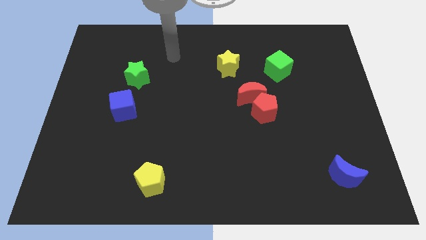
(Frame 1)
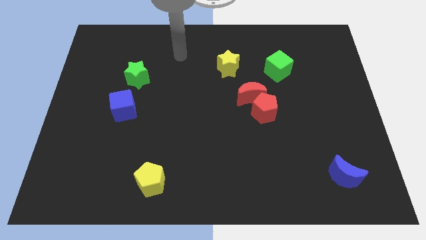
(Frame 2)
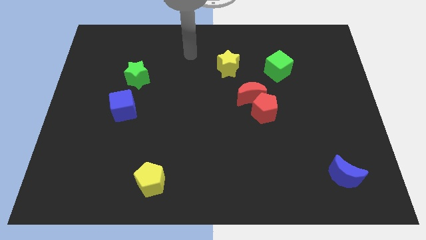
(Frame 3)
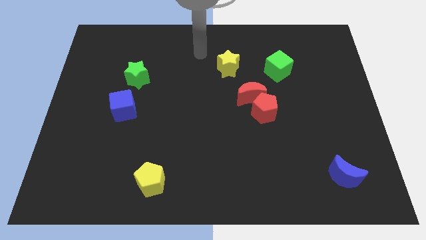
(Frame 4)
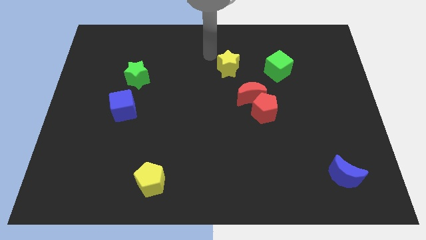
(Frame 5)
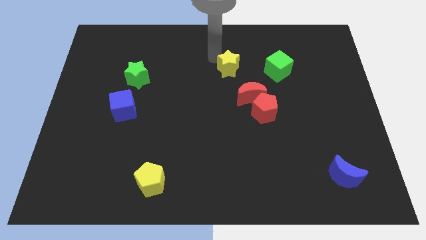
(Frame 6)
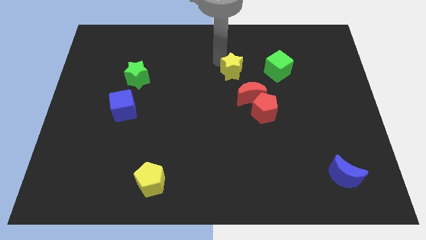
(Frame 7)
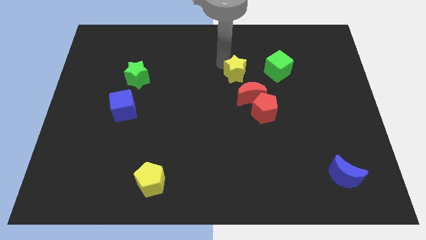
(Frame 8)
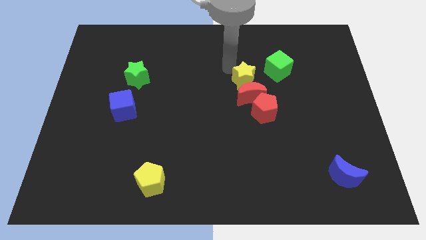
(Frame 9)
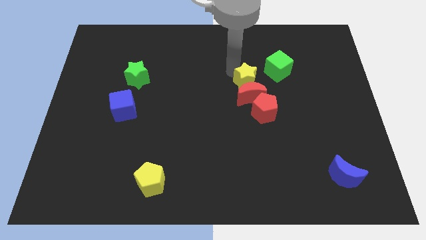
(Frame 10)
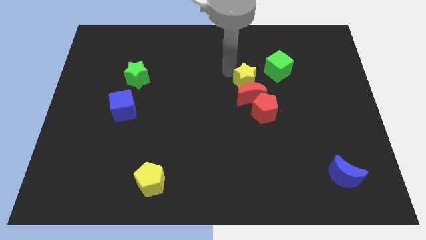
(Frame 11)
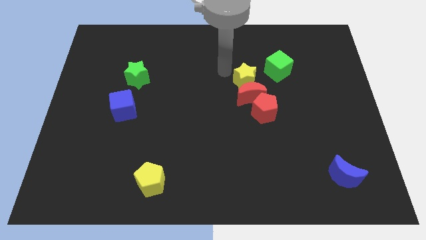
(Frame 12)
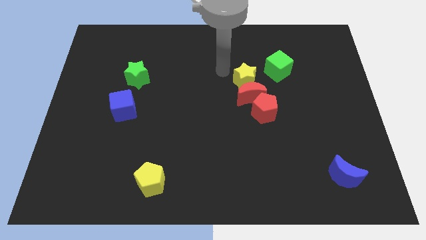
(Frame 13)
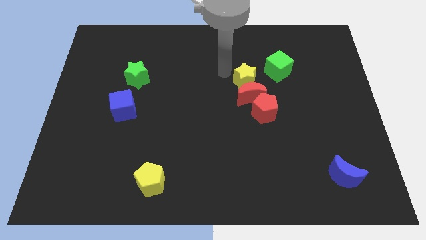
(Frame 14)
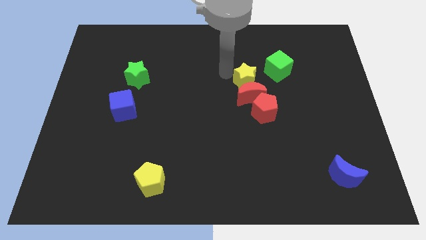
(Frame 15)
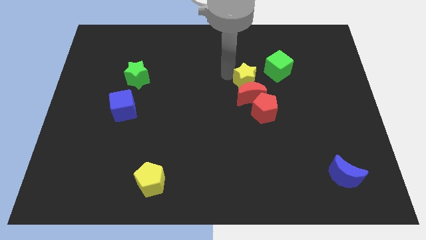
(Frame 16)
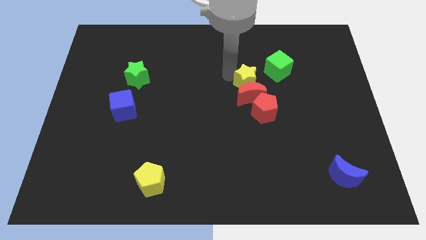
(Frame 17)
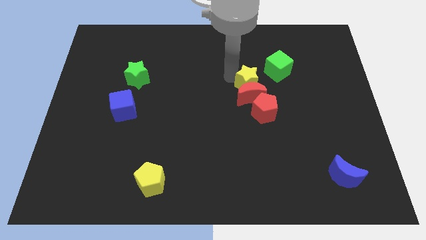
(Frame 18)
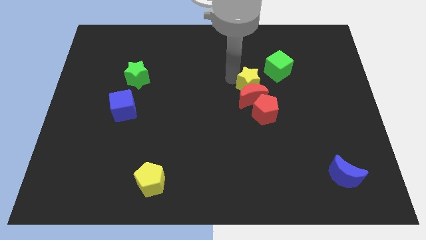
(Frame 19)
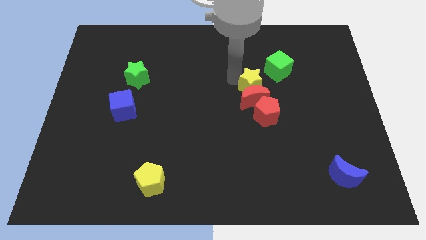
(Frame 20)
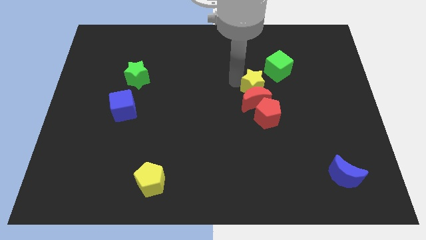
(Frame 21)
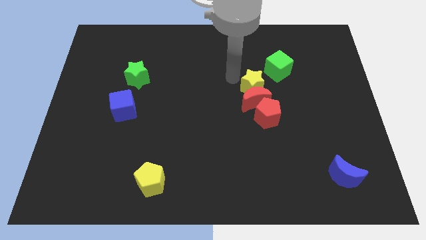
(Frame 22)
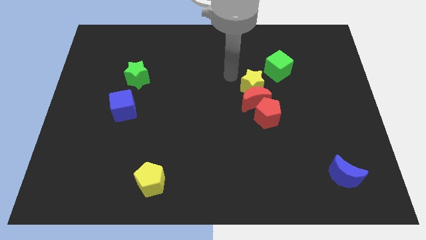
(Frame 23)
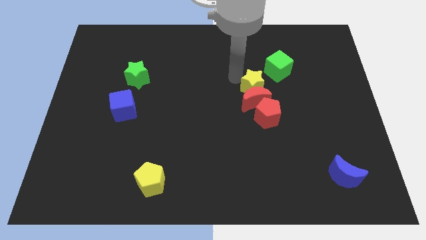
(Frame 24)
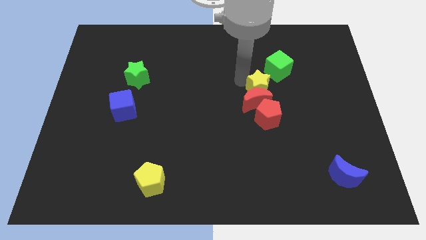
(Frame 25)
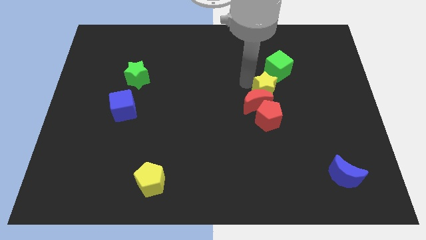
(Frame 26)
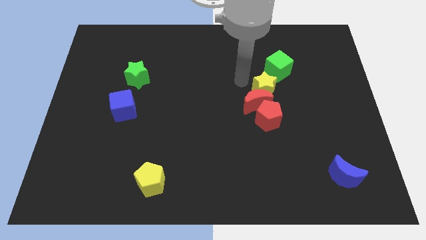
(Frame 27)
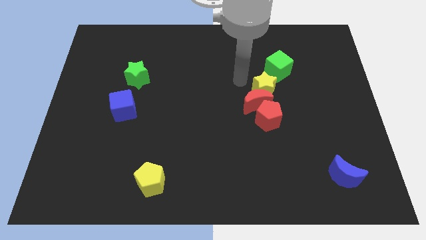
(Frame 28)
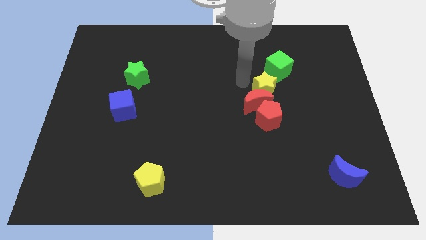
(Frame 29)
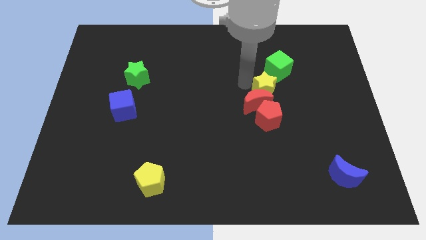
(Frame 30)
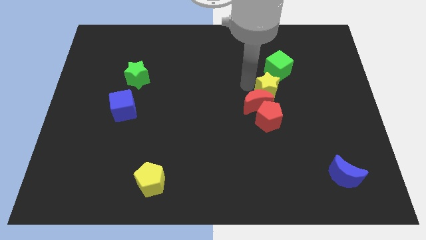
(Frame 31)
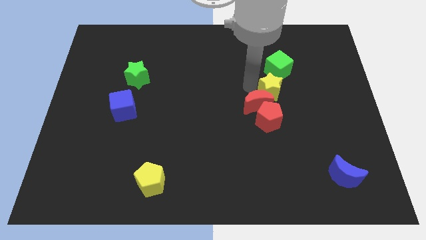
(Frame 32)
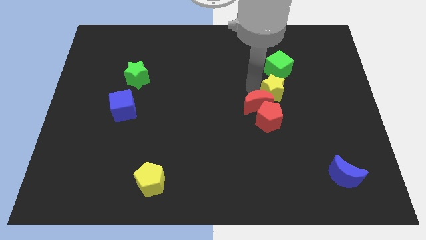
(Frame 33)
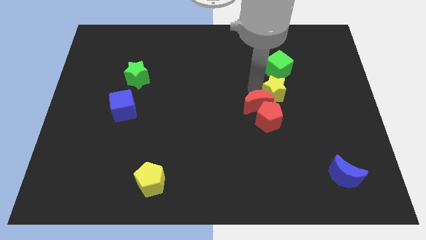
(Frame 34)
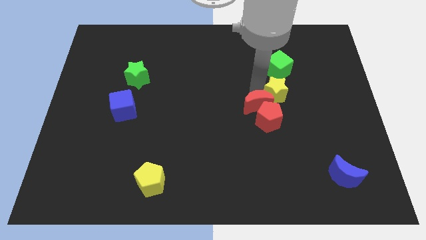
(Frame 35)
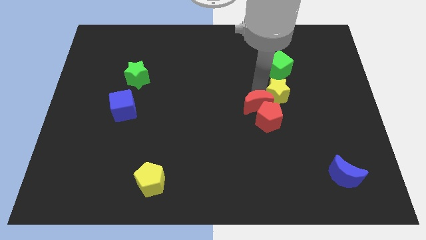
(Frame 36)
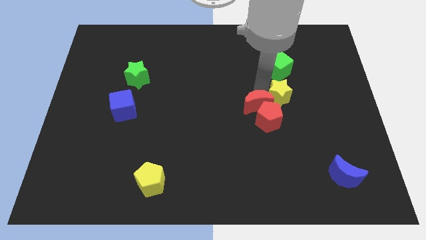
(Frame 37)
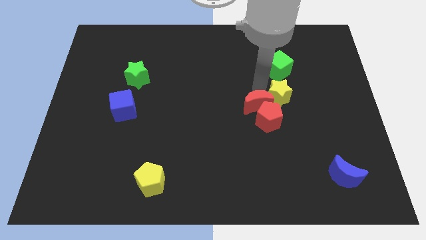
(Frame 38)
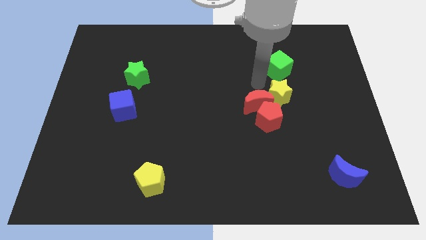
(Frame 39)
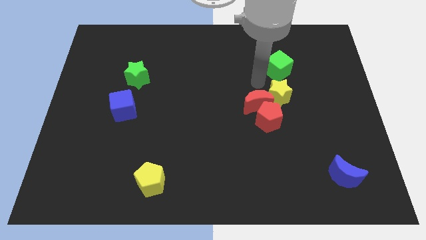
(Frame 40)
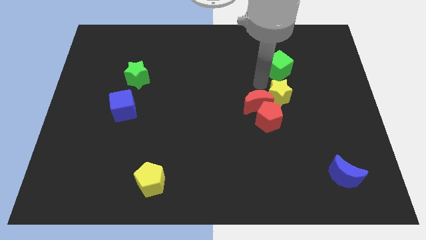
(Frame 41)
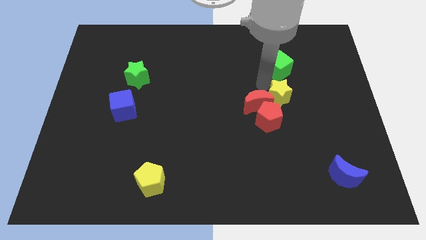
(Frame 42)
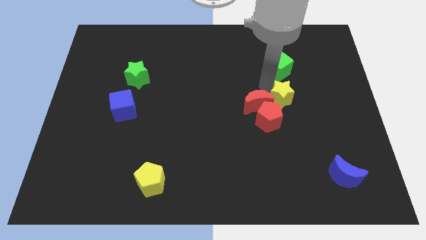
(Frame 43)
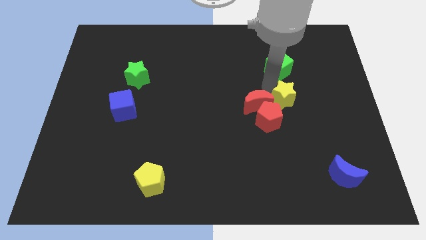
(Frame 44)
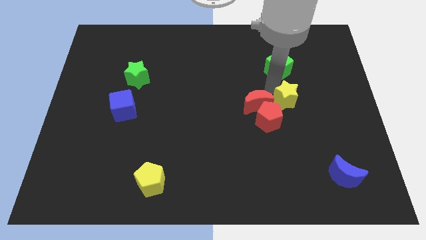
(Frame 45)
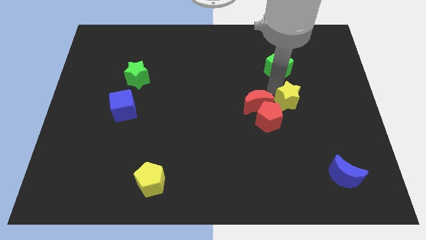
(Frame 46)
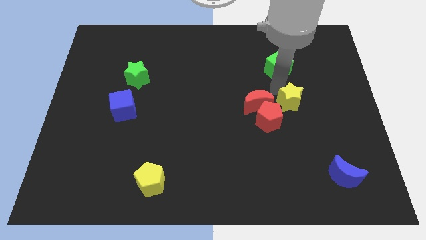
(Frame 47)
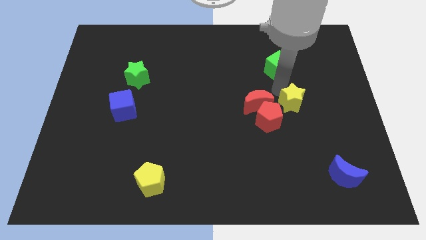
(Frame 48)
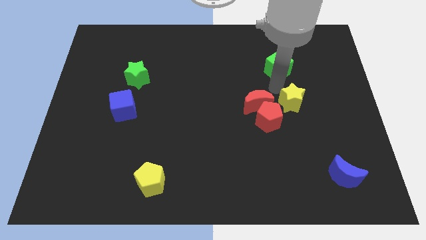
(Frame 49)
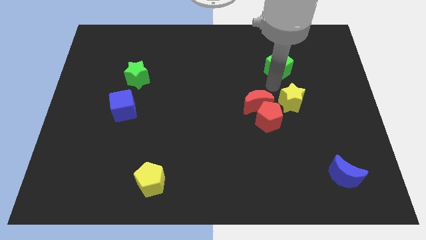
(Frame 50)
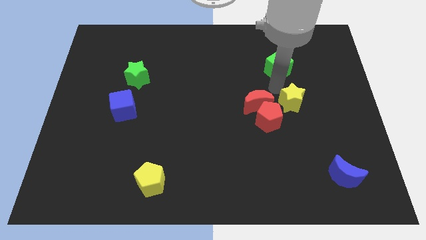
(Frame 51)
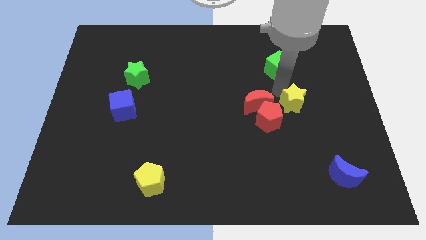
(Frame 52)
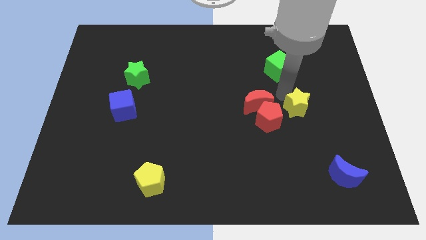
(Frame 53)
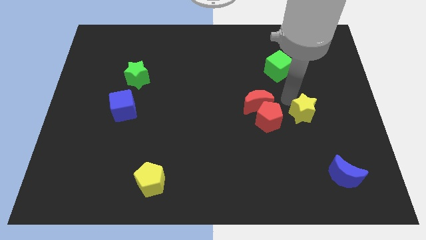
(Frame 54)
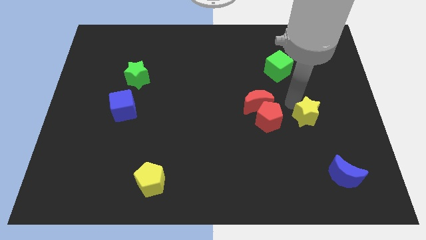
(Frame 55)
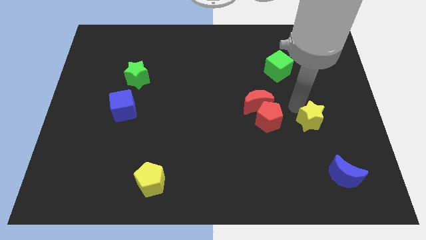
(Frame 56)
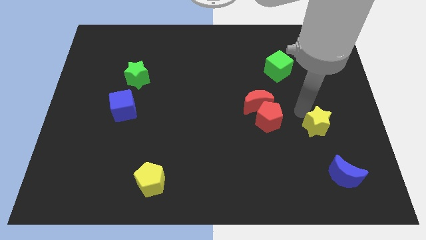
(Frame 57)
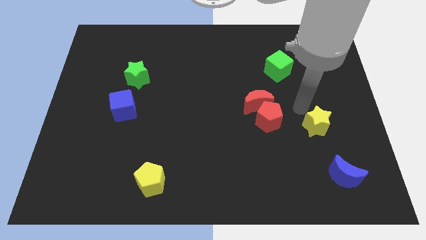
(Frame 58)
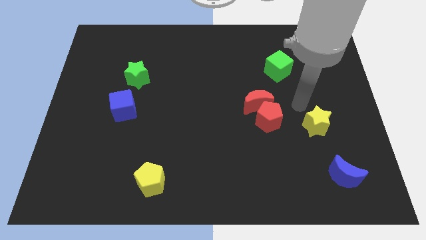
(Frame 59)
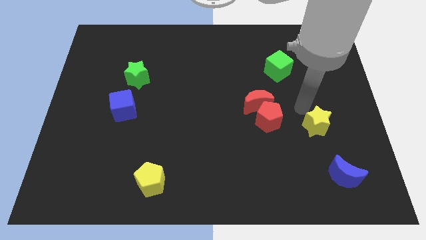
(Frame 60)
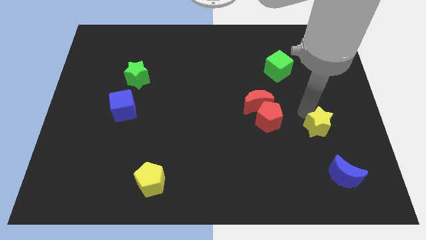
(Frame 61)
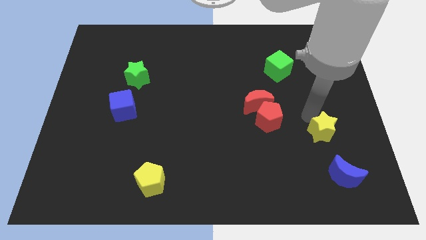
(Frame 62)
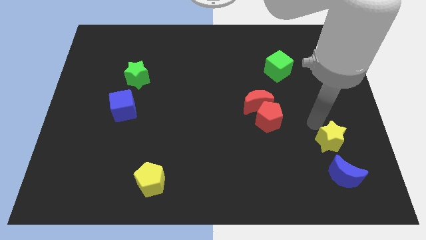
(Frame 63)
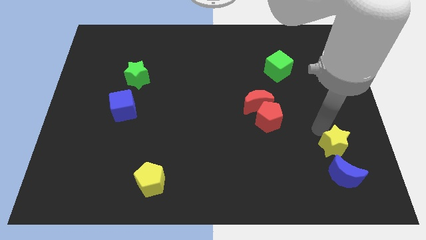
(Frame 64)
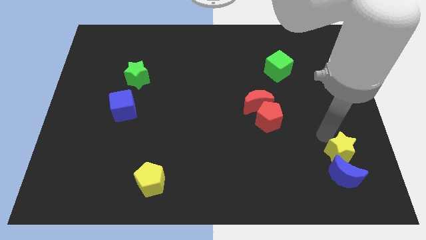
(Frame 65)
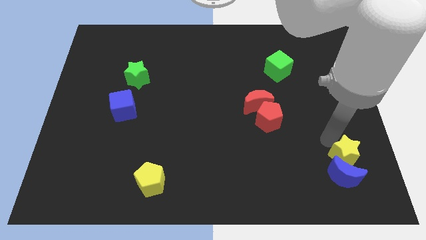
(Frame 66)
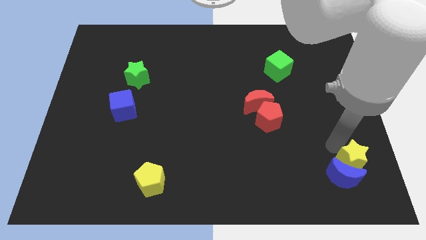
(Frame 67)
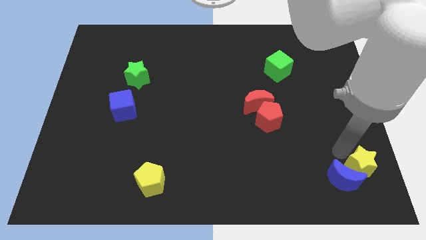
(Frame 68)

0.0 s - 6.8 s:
push the yellow star to the bottom right

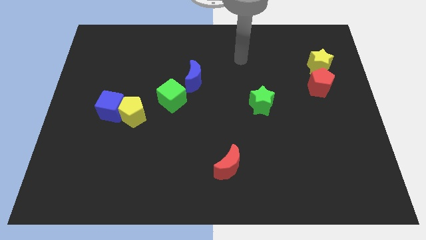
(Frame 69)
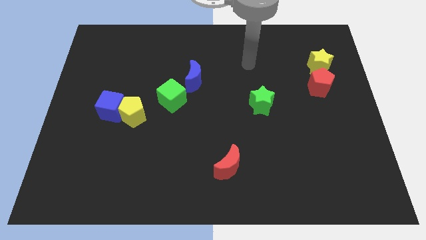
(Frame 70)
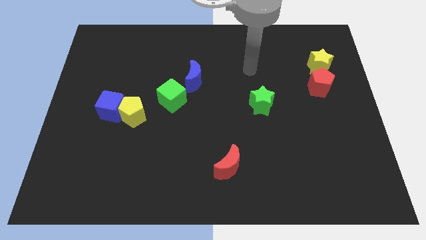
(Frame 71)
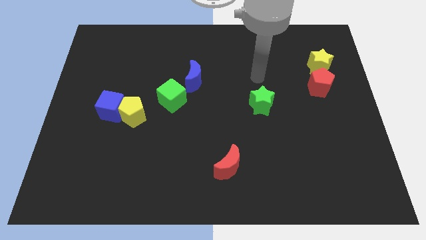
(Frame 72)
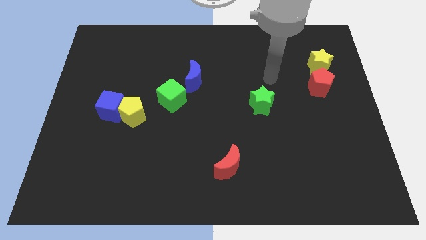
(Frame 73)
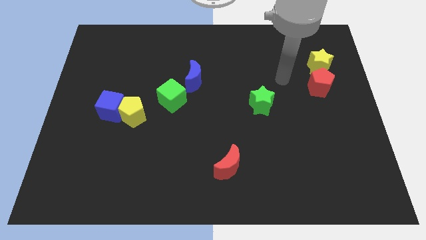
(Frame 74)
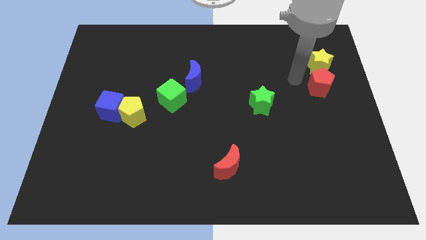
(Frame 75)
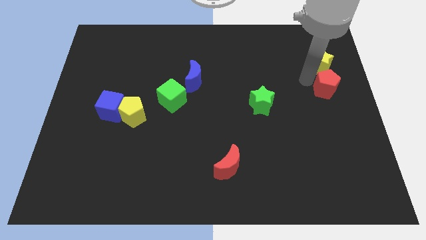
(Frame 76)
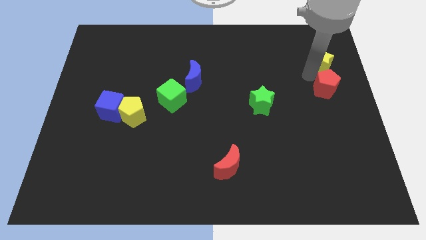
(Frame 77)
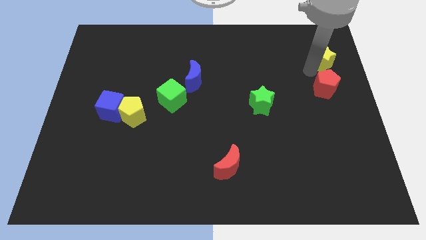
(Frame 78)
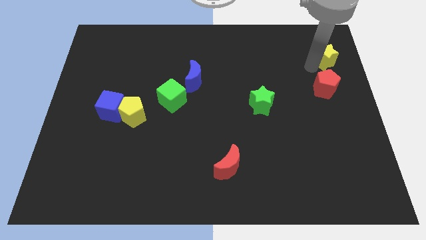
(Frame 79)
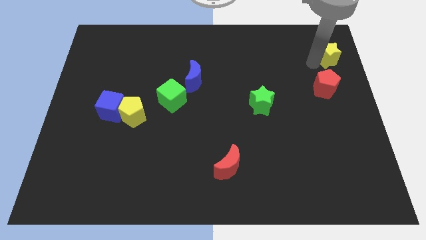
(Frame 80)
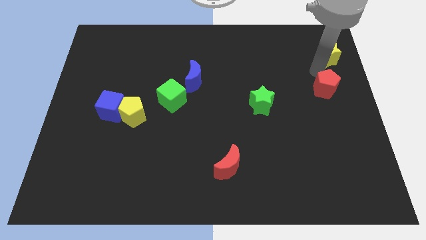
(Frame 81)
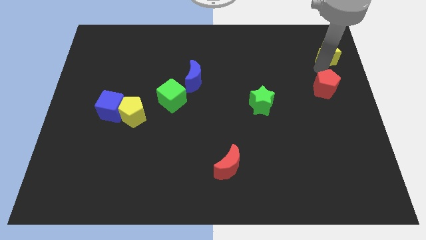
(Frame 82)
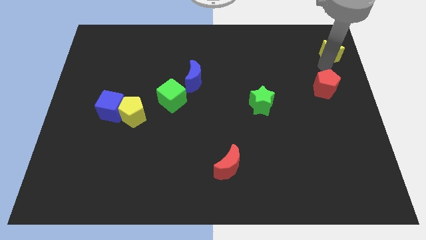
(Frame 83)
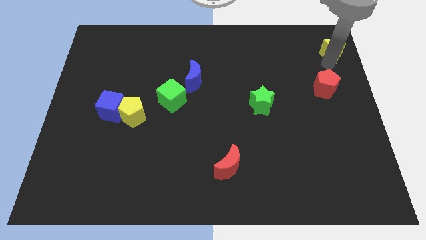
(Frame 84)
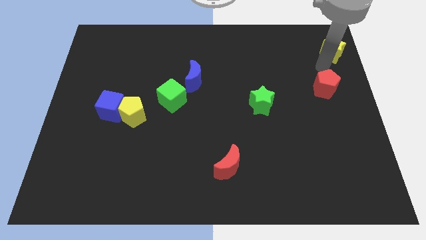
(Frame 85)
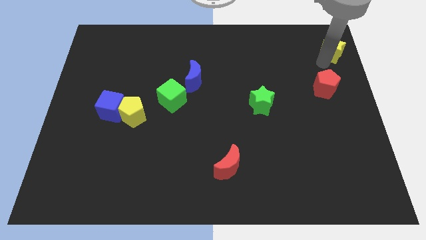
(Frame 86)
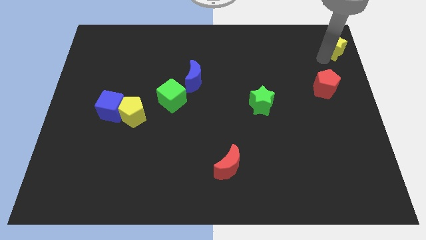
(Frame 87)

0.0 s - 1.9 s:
move the yellow star to the top right of the board
